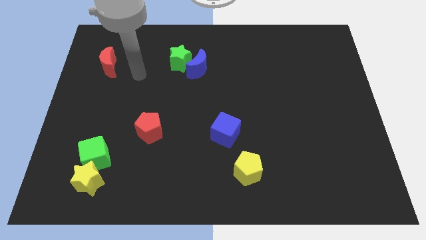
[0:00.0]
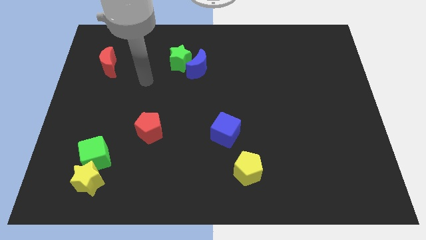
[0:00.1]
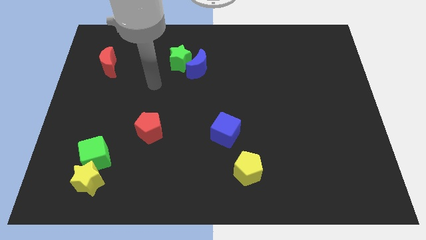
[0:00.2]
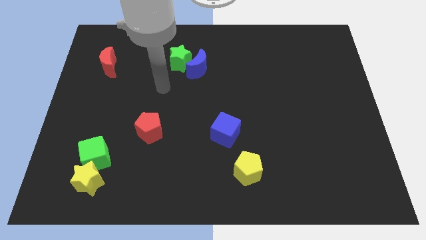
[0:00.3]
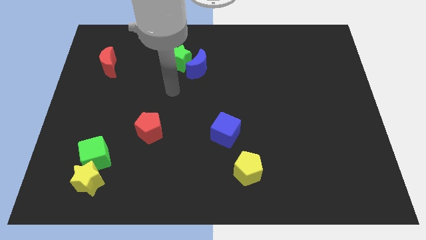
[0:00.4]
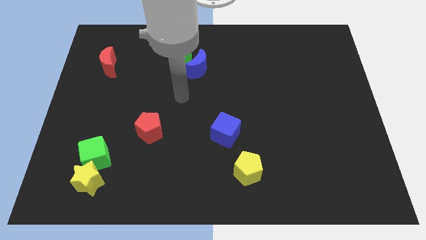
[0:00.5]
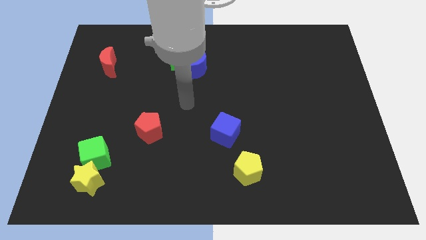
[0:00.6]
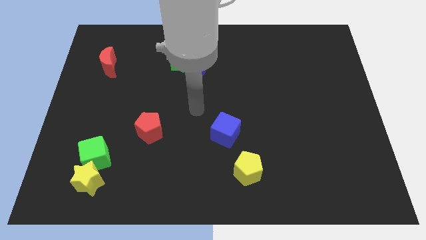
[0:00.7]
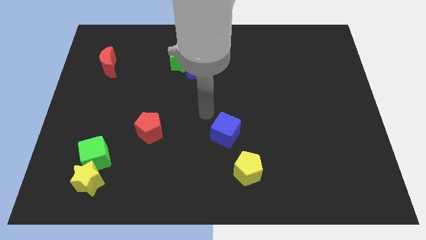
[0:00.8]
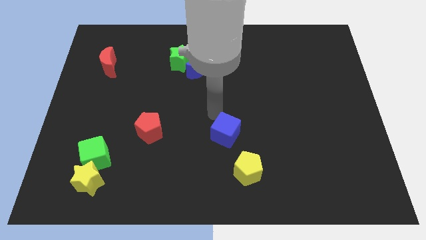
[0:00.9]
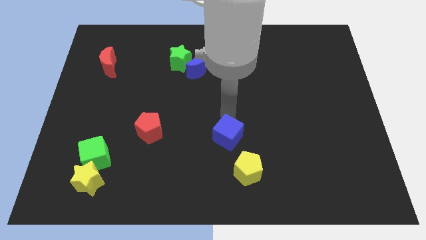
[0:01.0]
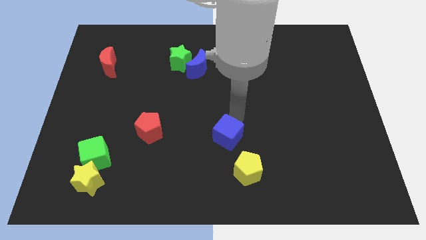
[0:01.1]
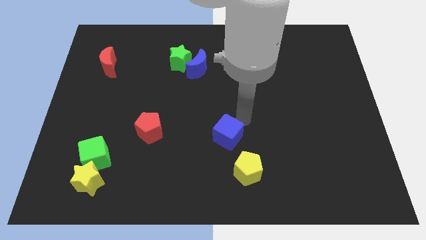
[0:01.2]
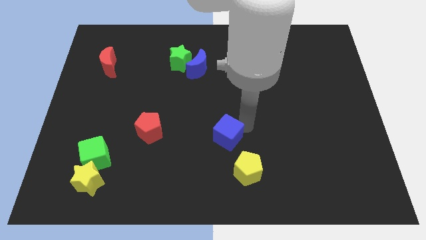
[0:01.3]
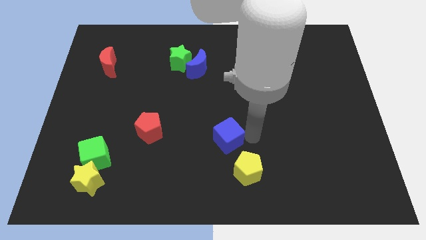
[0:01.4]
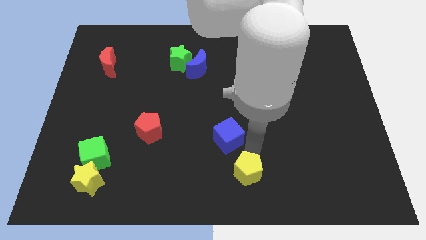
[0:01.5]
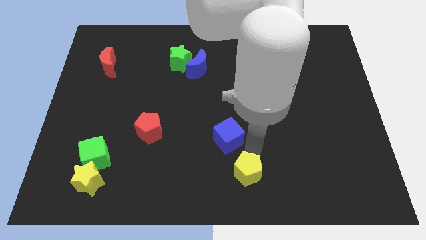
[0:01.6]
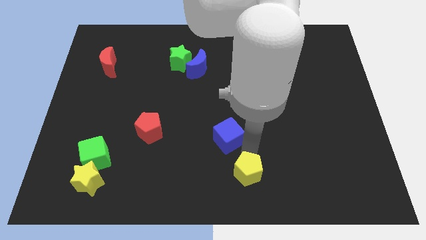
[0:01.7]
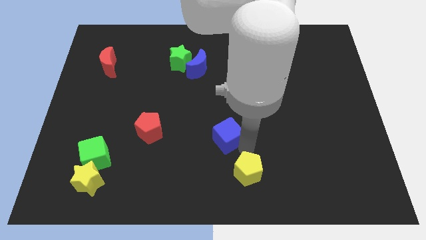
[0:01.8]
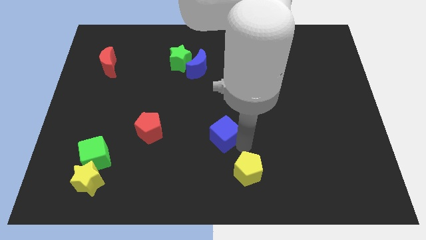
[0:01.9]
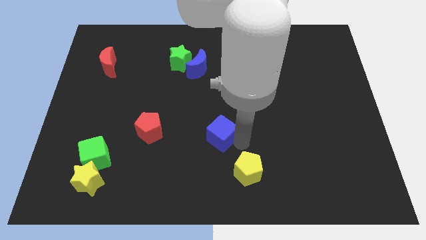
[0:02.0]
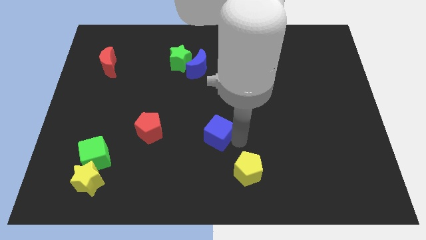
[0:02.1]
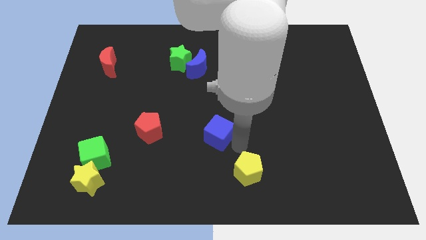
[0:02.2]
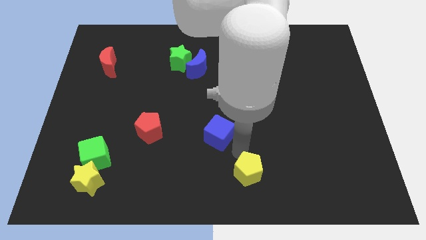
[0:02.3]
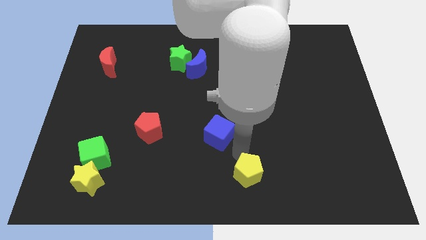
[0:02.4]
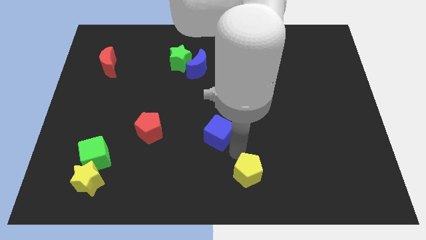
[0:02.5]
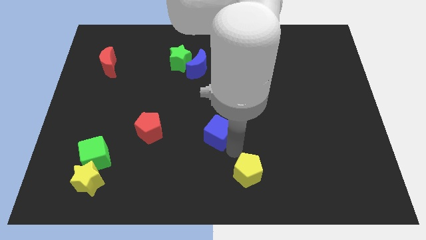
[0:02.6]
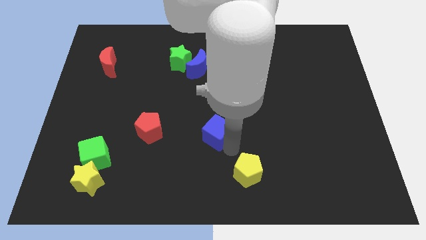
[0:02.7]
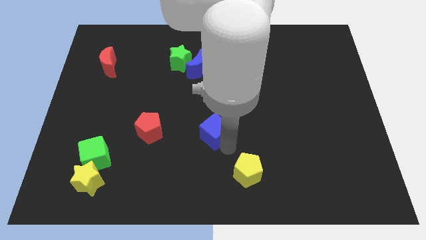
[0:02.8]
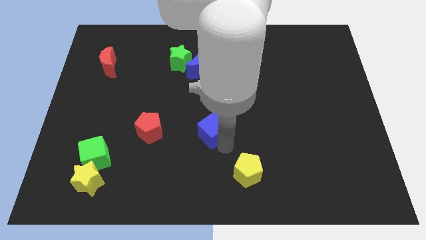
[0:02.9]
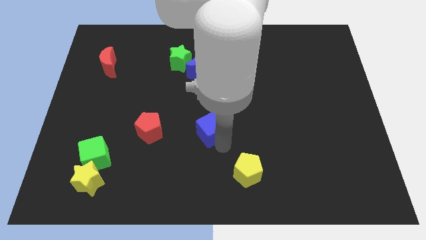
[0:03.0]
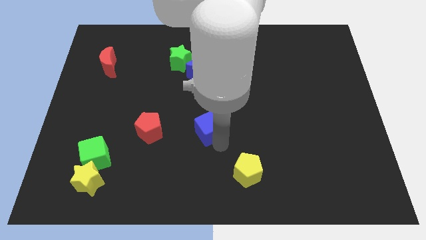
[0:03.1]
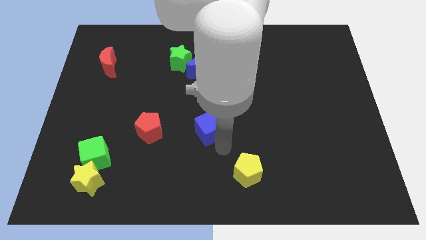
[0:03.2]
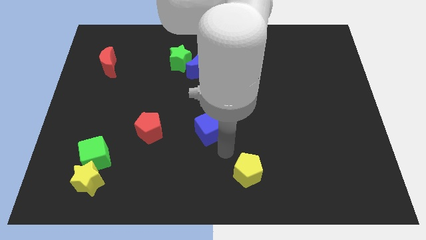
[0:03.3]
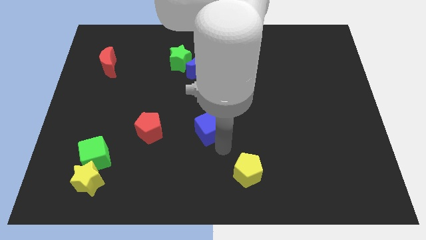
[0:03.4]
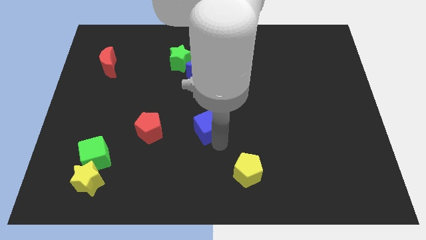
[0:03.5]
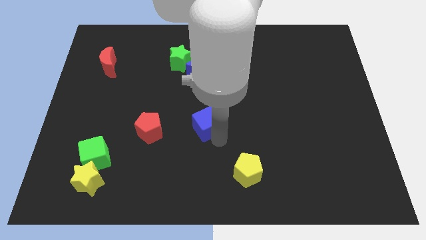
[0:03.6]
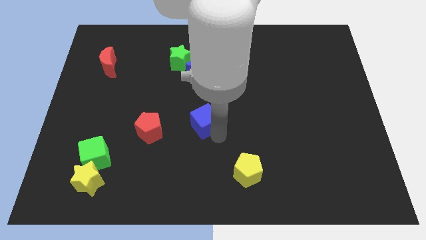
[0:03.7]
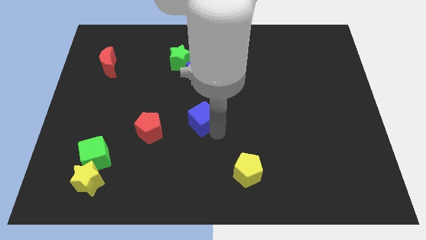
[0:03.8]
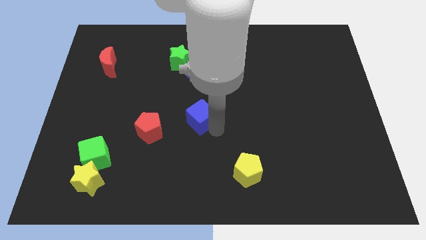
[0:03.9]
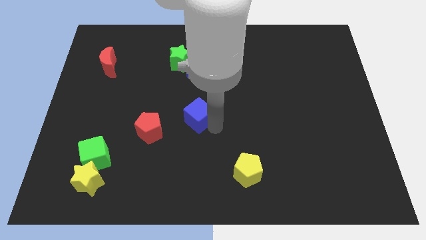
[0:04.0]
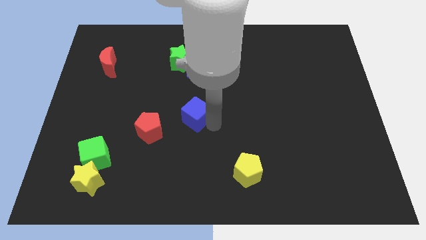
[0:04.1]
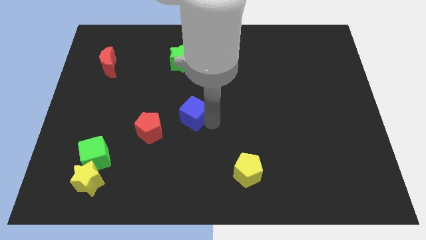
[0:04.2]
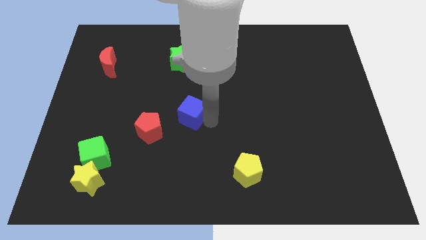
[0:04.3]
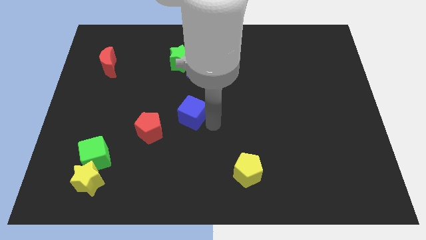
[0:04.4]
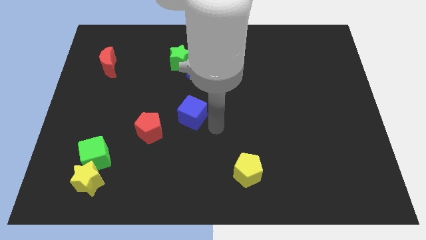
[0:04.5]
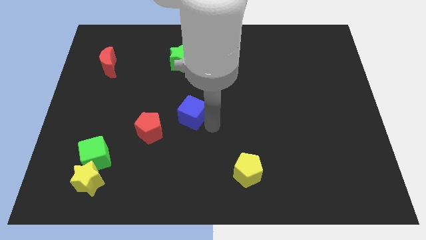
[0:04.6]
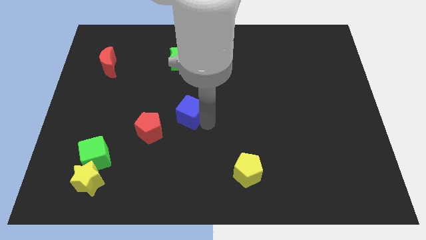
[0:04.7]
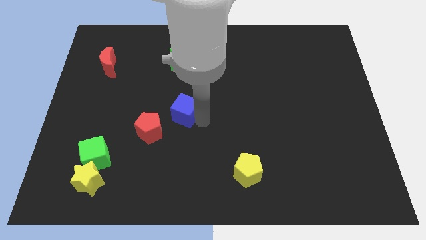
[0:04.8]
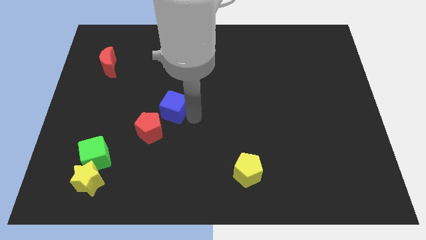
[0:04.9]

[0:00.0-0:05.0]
move the blue cube to the top side of the red pentagon

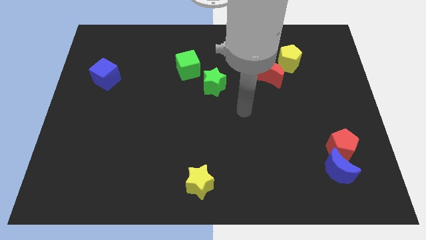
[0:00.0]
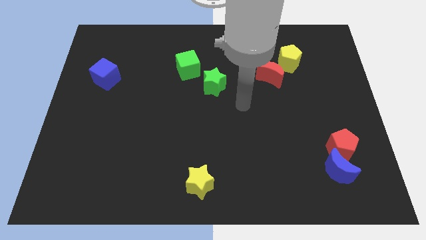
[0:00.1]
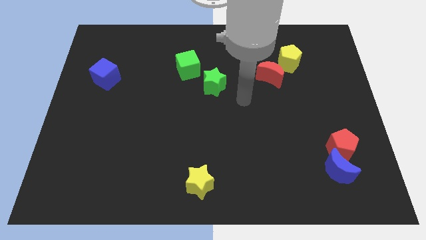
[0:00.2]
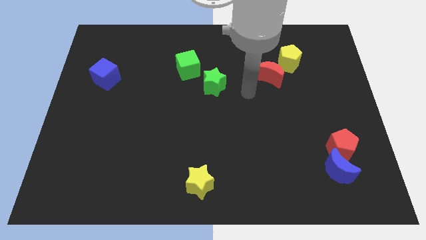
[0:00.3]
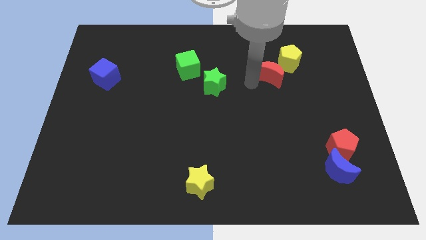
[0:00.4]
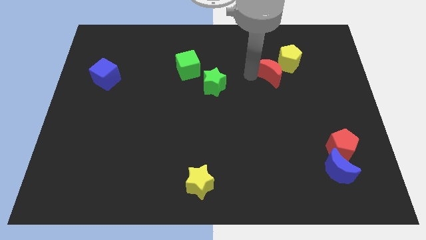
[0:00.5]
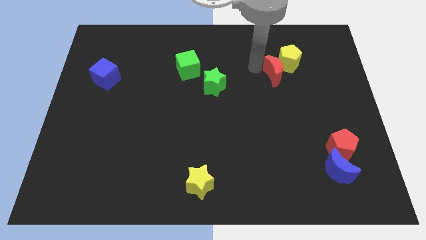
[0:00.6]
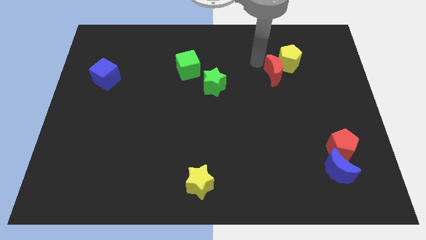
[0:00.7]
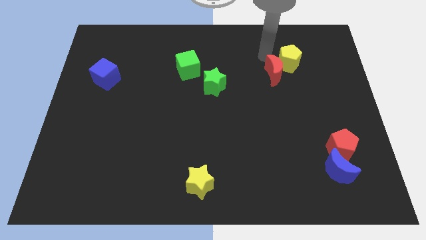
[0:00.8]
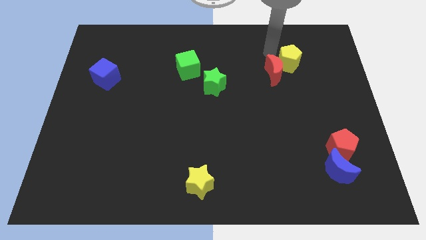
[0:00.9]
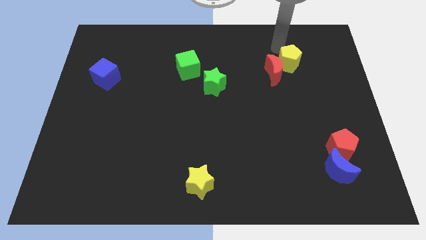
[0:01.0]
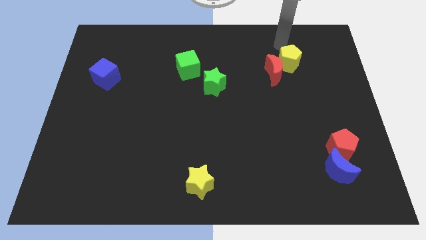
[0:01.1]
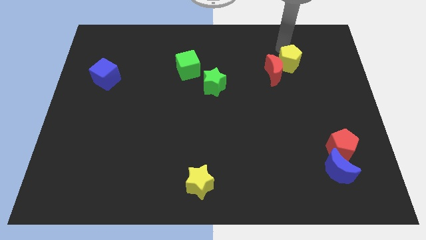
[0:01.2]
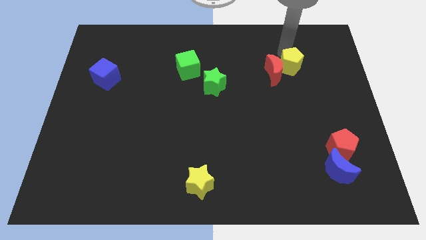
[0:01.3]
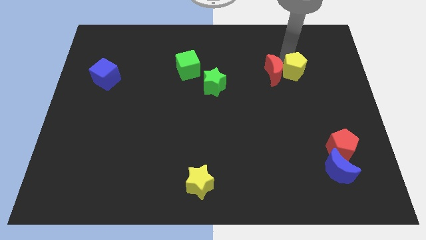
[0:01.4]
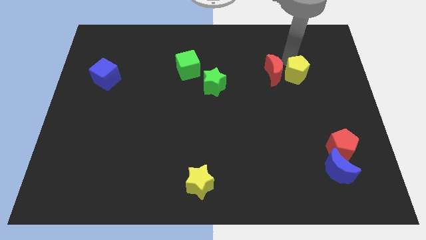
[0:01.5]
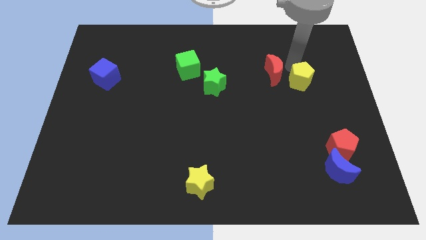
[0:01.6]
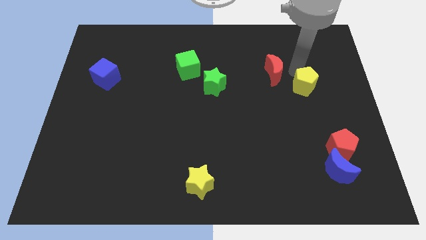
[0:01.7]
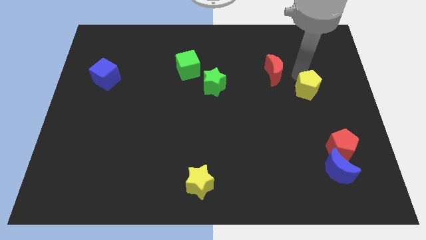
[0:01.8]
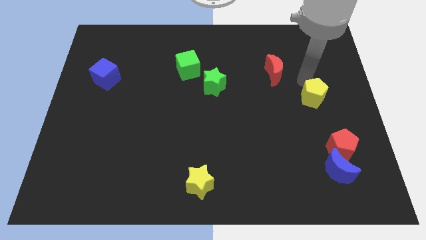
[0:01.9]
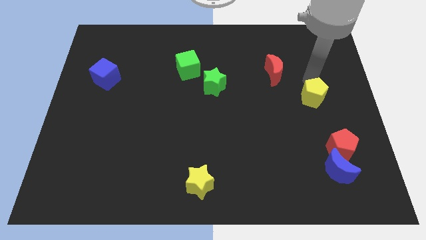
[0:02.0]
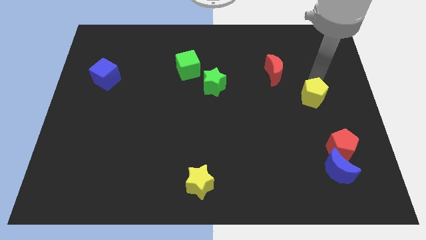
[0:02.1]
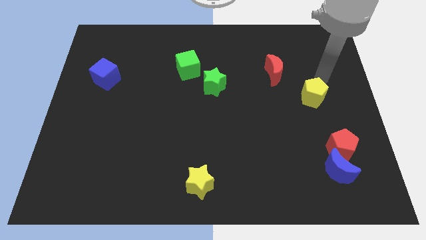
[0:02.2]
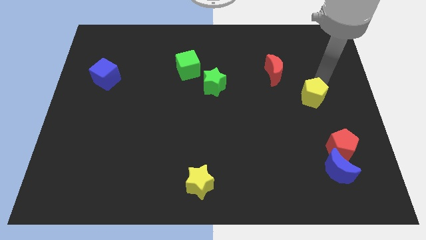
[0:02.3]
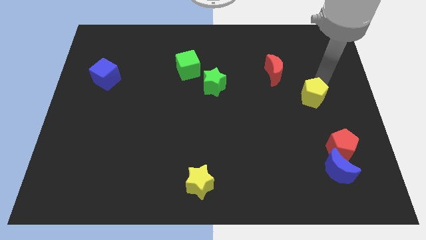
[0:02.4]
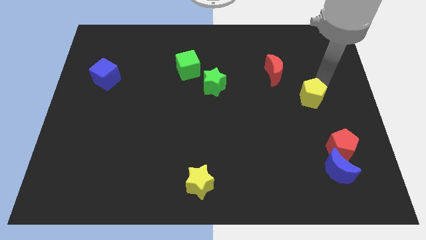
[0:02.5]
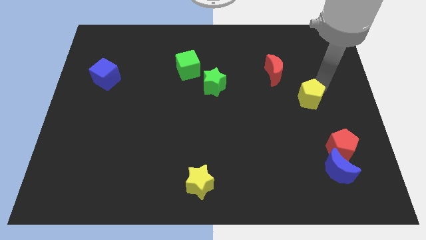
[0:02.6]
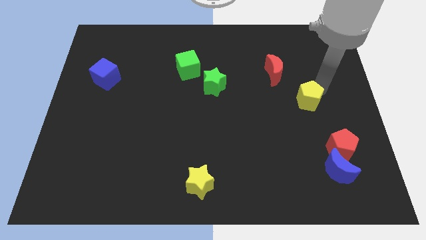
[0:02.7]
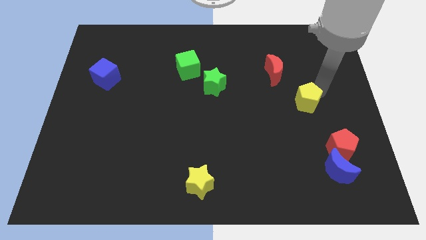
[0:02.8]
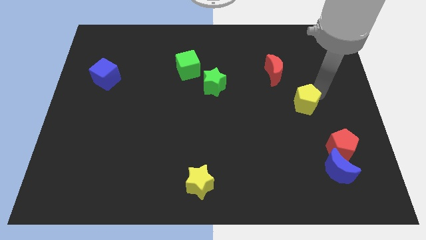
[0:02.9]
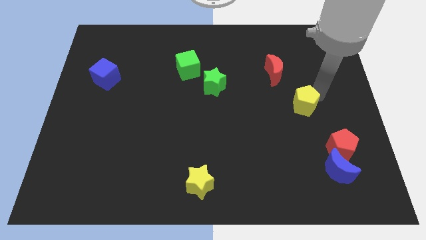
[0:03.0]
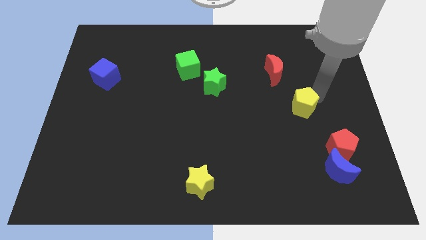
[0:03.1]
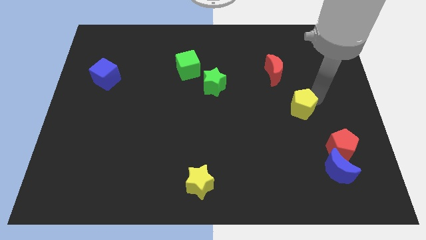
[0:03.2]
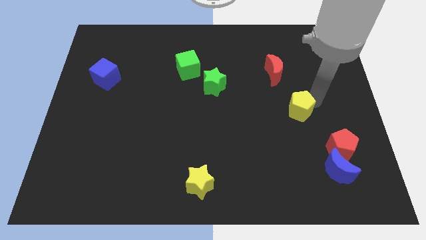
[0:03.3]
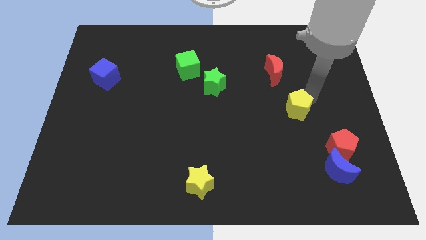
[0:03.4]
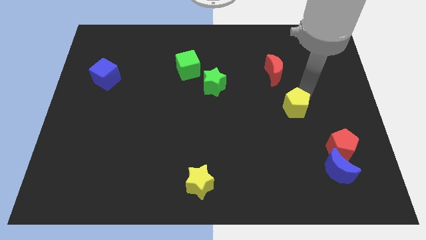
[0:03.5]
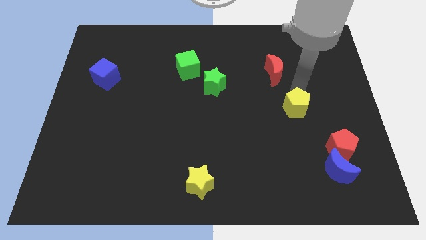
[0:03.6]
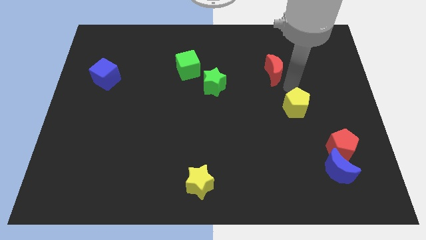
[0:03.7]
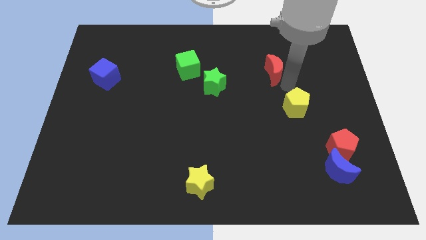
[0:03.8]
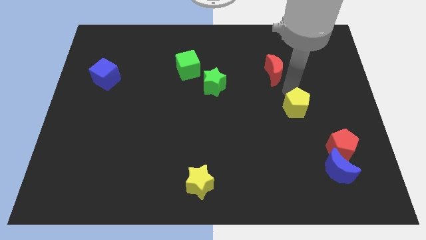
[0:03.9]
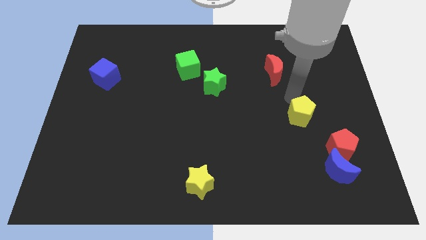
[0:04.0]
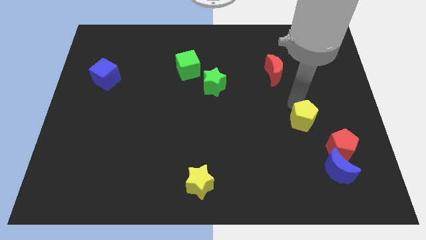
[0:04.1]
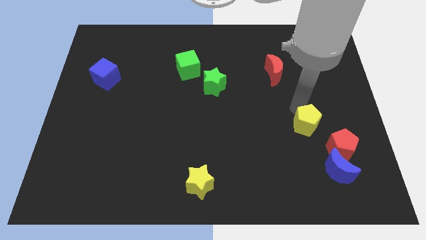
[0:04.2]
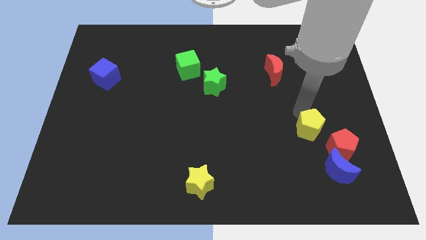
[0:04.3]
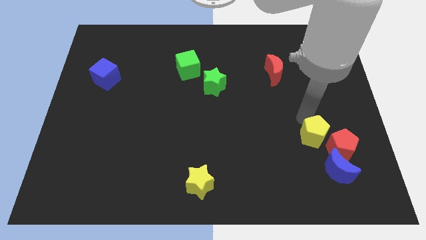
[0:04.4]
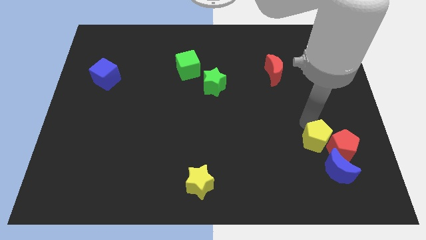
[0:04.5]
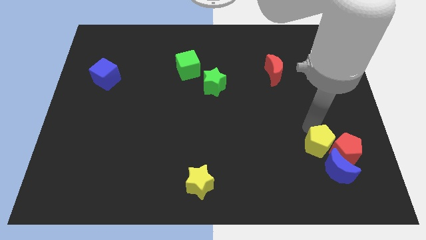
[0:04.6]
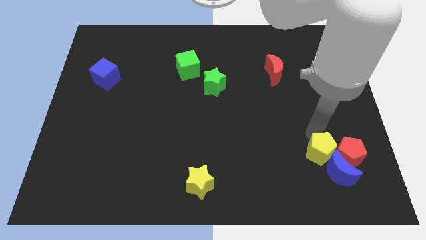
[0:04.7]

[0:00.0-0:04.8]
move the yellow pentagon to the bottom left side of the red pentagon
